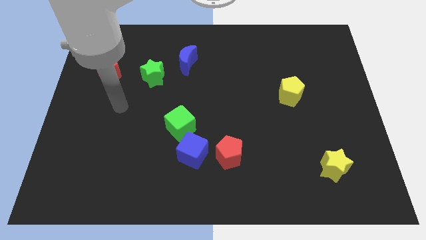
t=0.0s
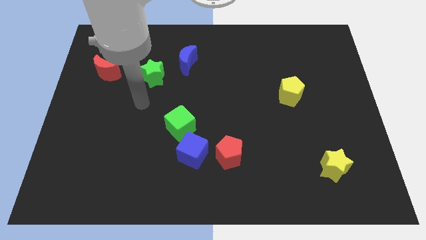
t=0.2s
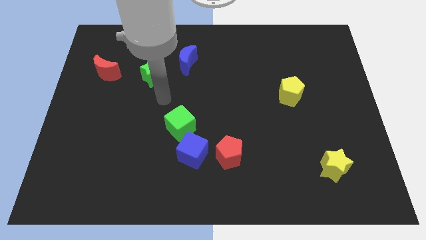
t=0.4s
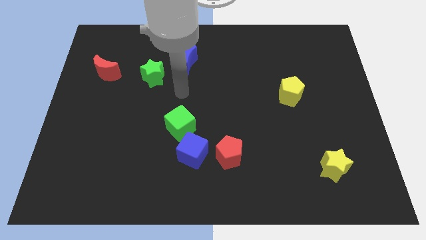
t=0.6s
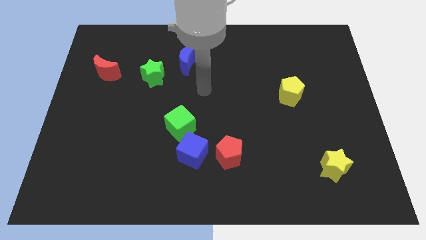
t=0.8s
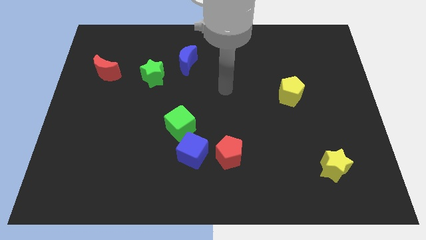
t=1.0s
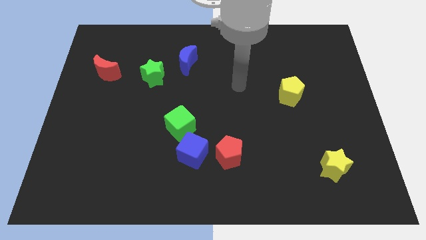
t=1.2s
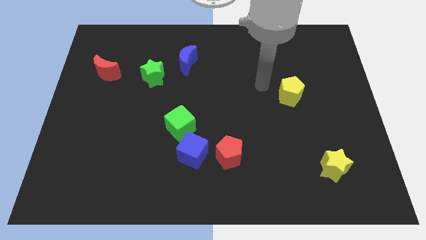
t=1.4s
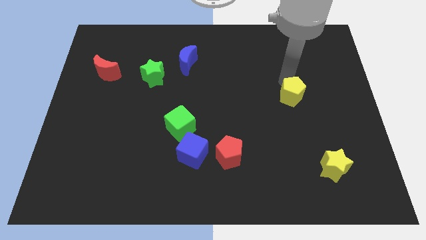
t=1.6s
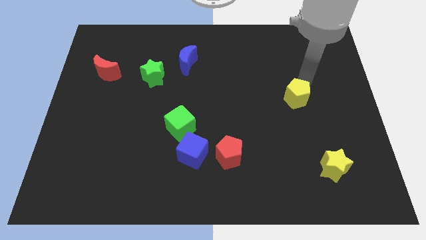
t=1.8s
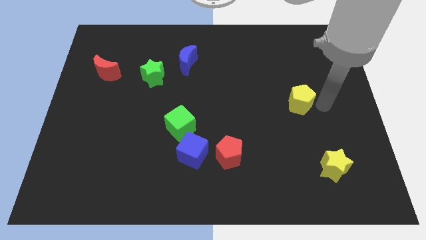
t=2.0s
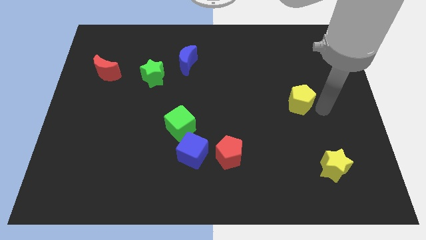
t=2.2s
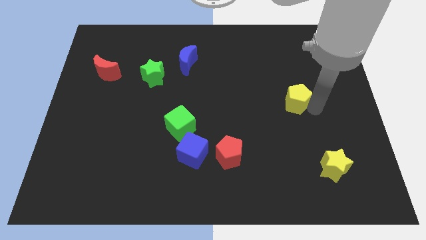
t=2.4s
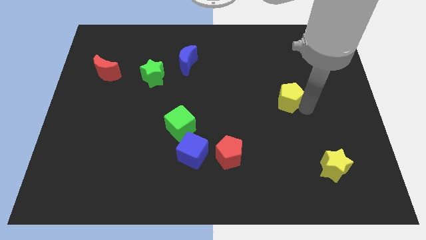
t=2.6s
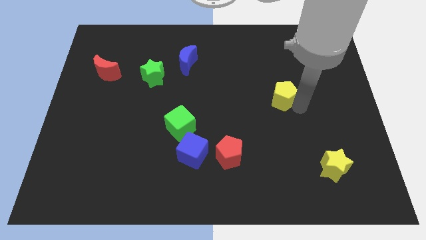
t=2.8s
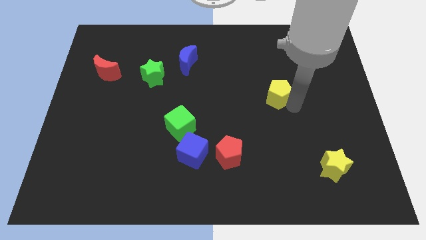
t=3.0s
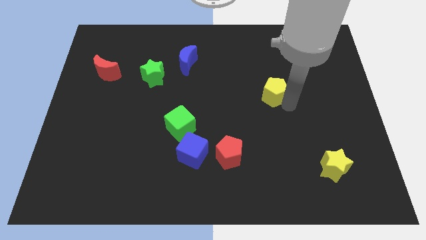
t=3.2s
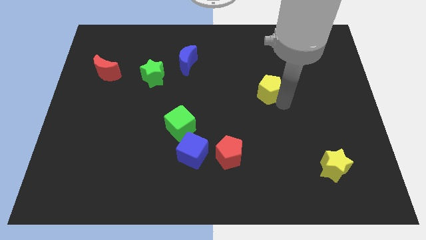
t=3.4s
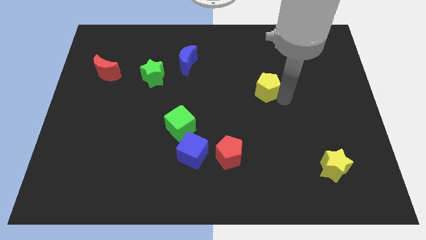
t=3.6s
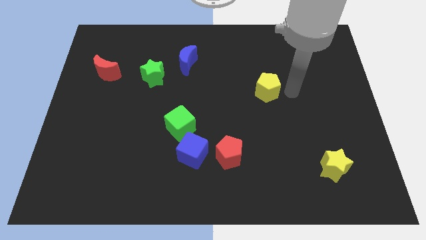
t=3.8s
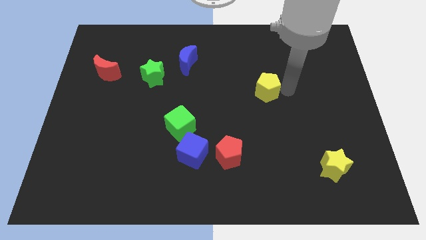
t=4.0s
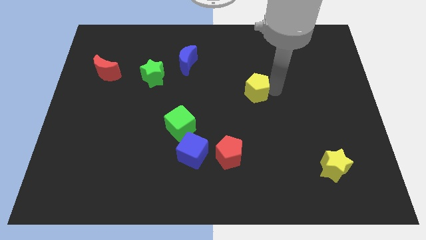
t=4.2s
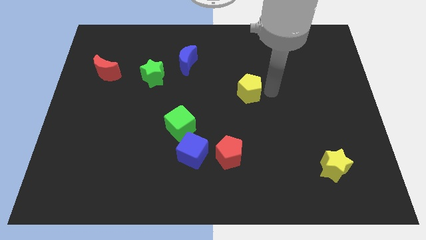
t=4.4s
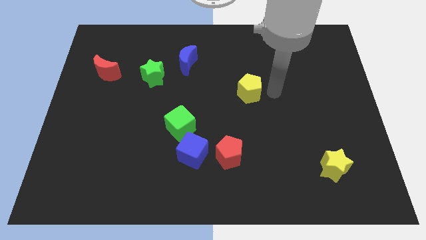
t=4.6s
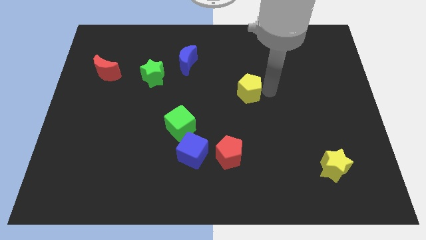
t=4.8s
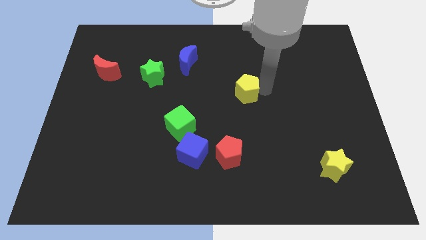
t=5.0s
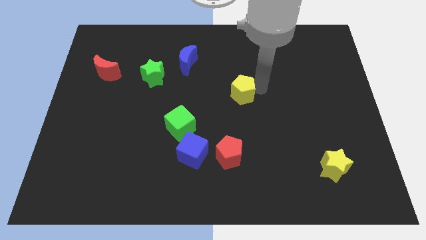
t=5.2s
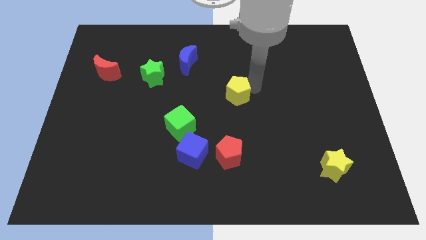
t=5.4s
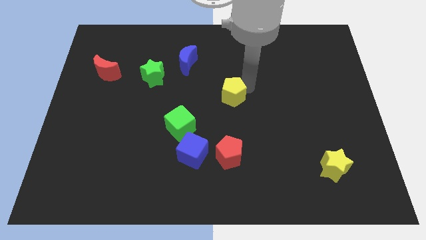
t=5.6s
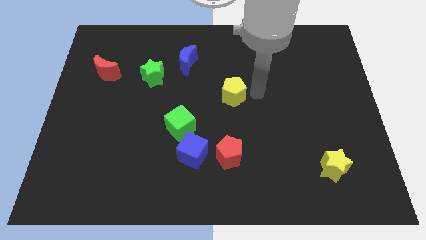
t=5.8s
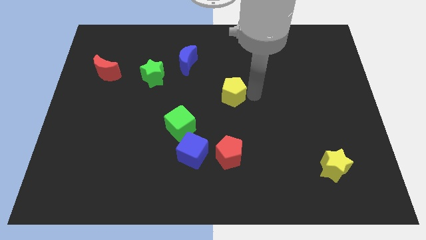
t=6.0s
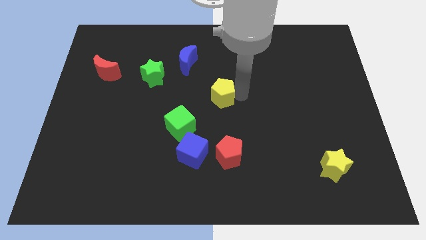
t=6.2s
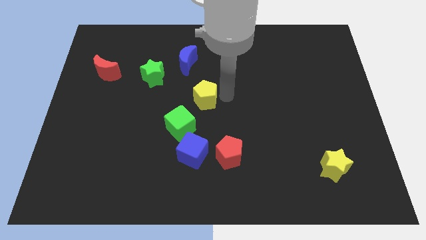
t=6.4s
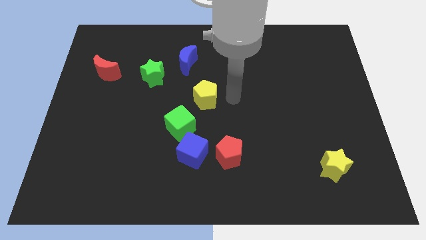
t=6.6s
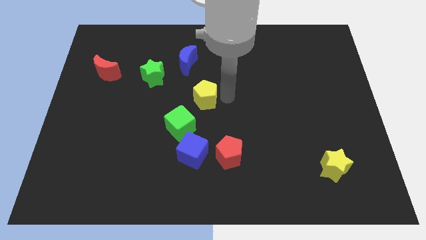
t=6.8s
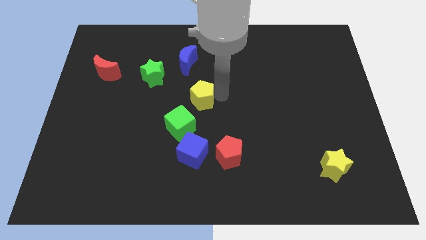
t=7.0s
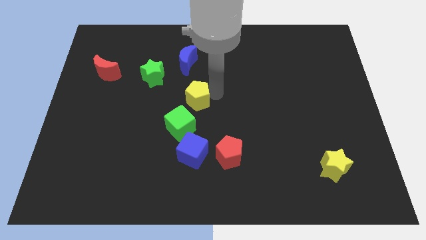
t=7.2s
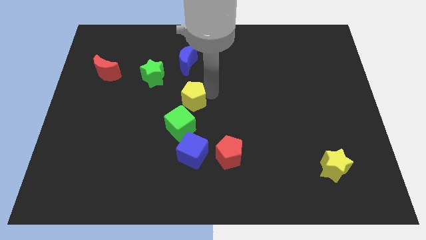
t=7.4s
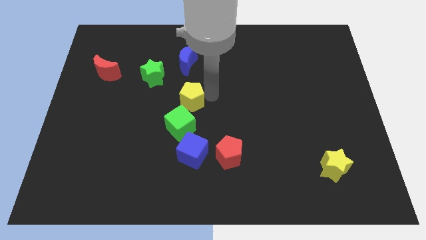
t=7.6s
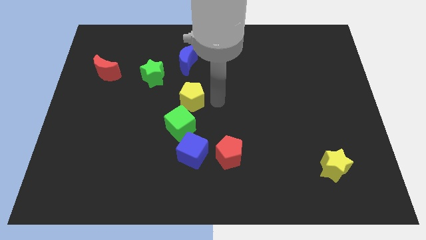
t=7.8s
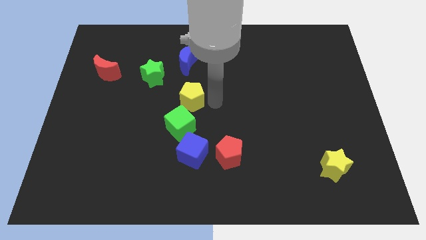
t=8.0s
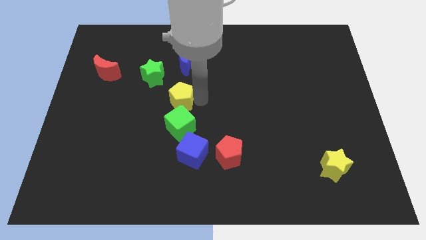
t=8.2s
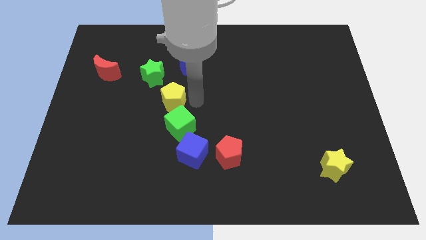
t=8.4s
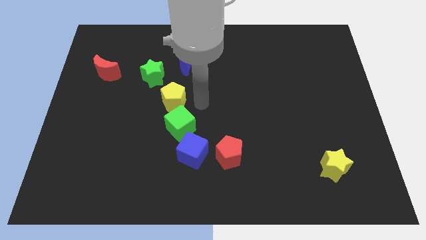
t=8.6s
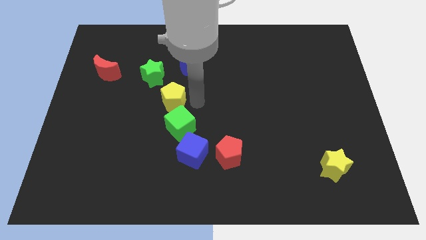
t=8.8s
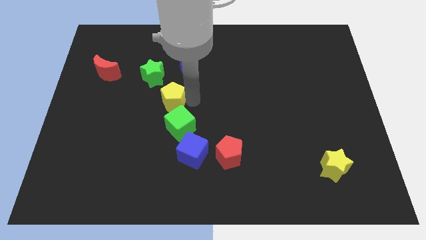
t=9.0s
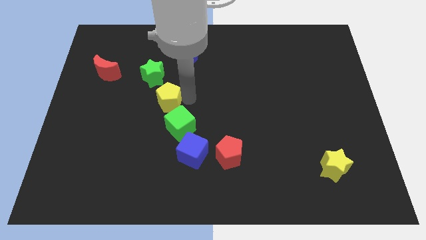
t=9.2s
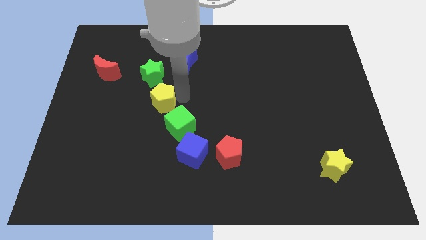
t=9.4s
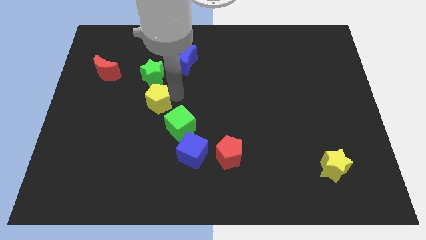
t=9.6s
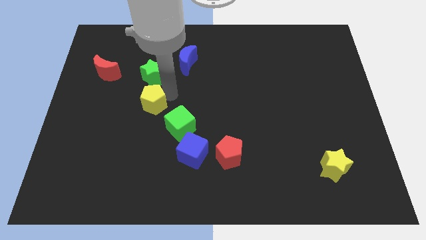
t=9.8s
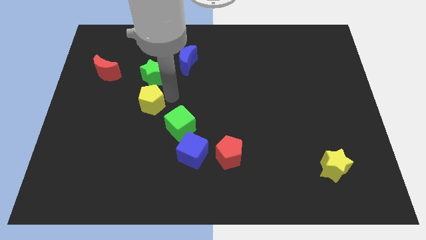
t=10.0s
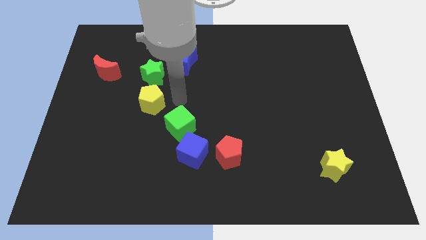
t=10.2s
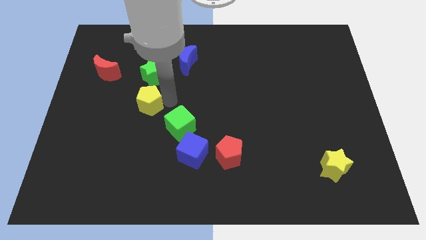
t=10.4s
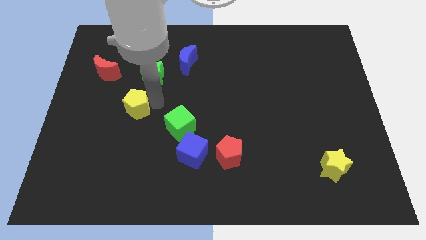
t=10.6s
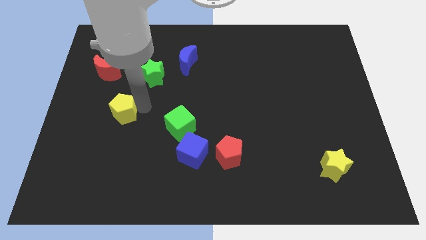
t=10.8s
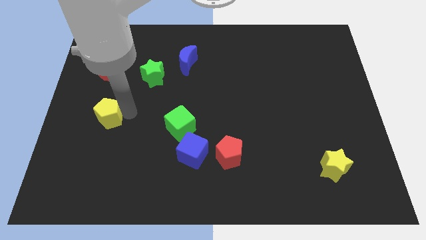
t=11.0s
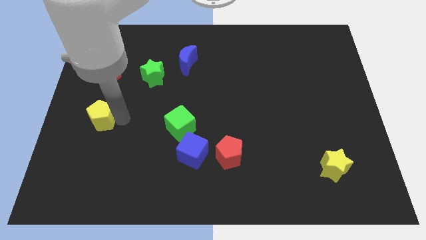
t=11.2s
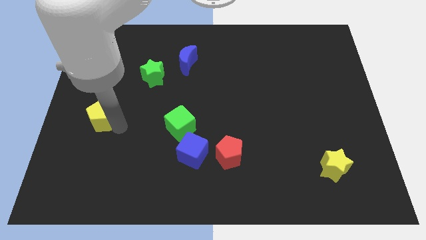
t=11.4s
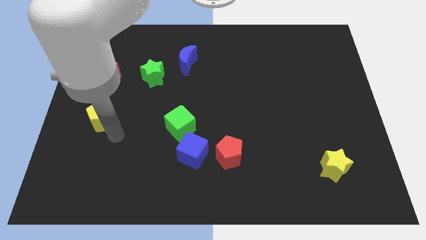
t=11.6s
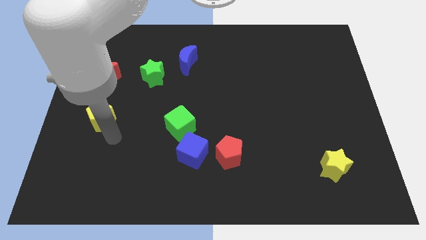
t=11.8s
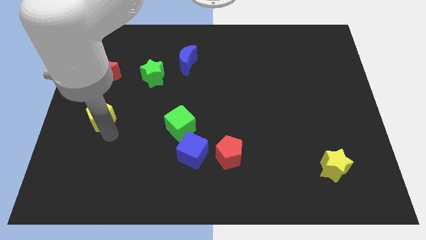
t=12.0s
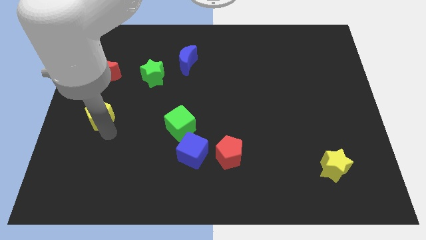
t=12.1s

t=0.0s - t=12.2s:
push the yellow pentagon to the center left
